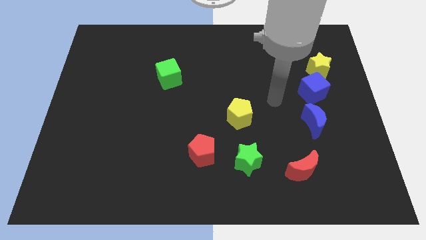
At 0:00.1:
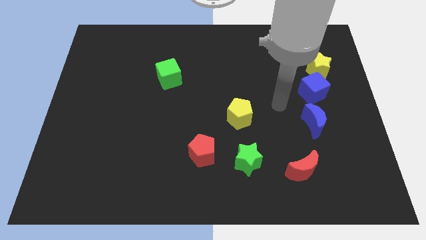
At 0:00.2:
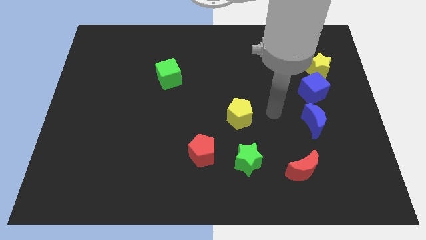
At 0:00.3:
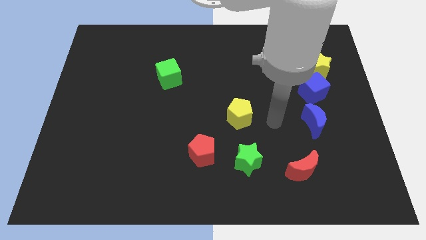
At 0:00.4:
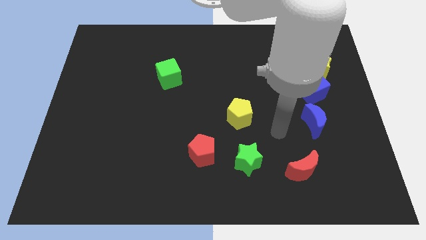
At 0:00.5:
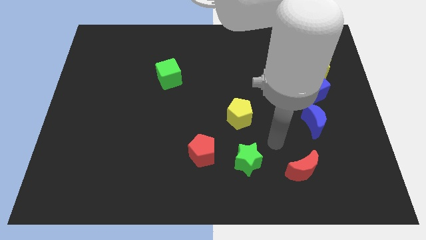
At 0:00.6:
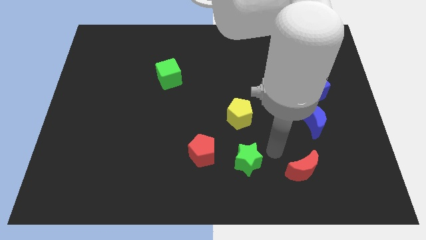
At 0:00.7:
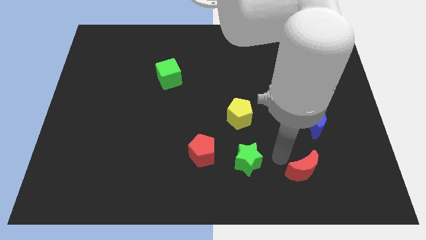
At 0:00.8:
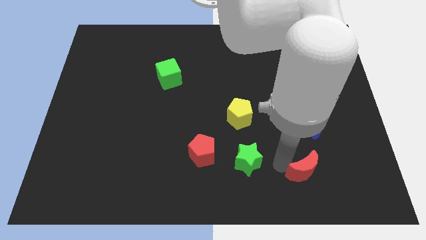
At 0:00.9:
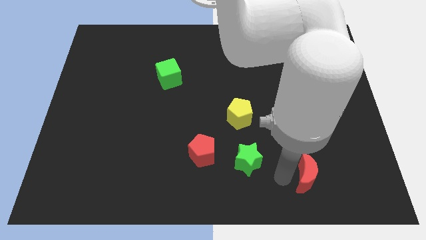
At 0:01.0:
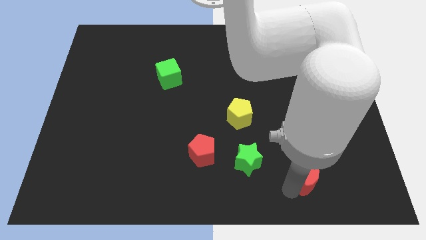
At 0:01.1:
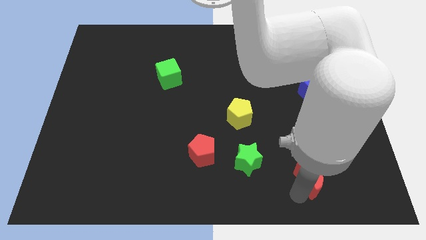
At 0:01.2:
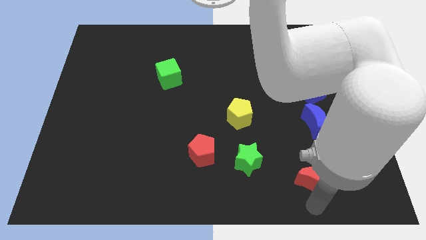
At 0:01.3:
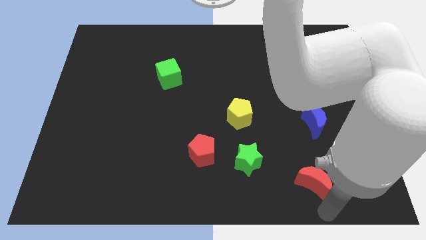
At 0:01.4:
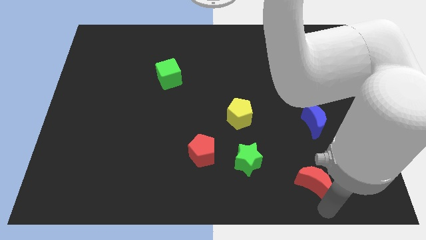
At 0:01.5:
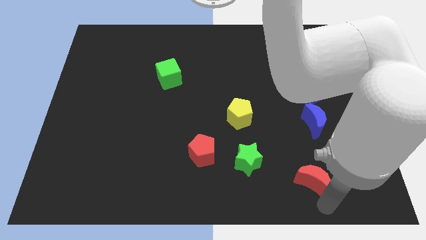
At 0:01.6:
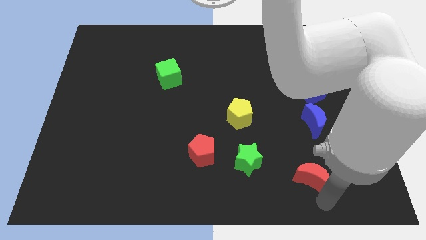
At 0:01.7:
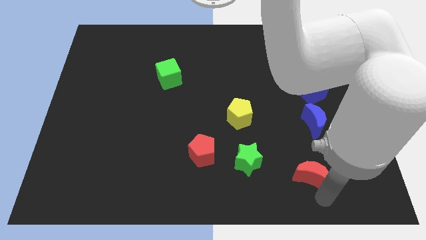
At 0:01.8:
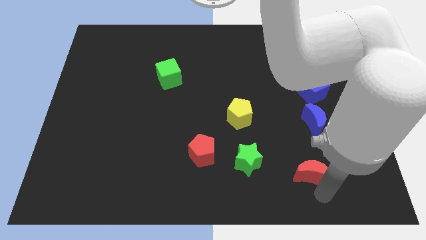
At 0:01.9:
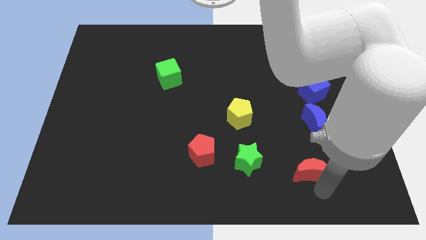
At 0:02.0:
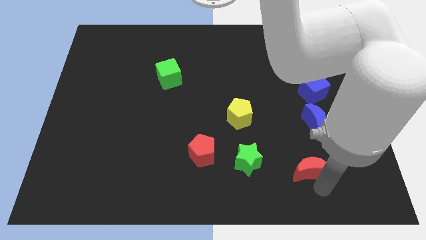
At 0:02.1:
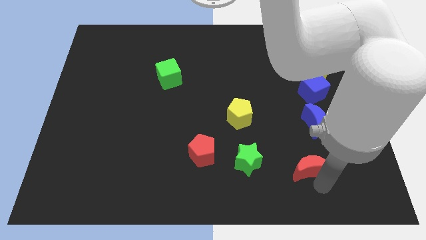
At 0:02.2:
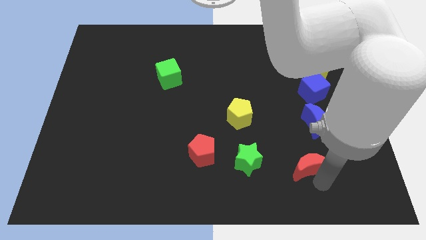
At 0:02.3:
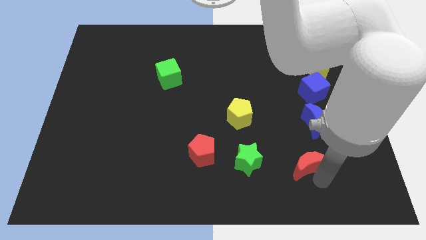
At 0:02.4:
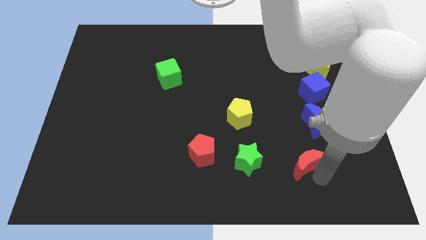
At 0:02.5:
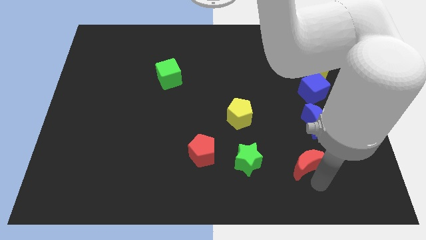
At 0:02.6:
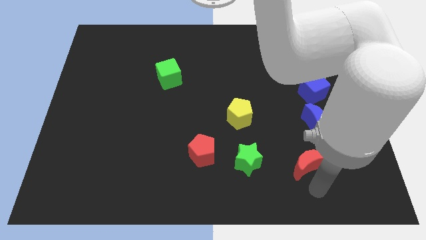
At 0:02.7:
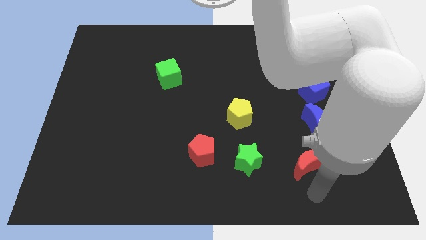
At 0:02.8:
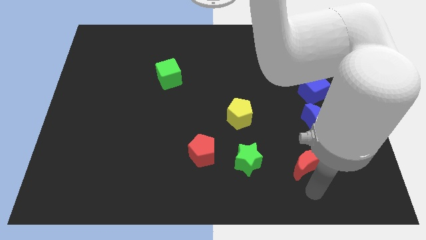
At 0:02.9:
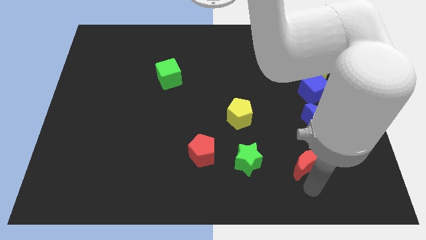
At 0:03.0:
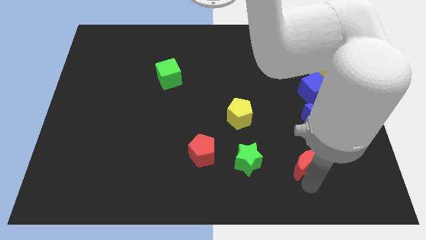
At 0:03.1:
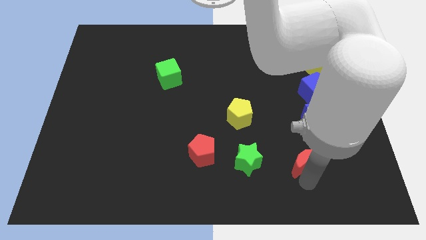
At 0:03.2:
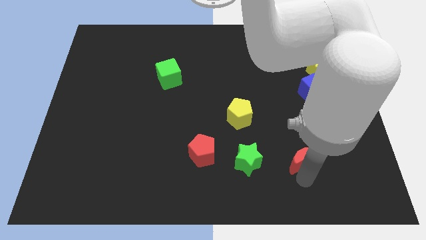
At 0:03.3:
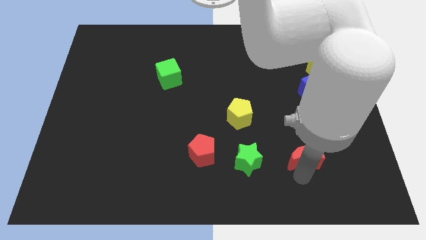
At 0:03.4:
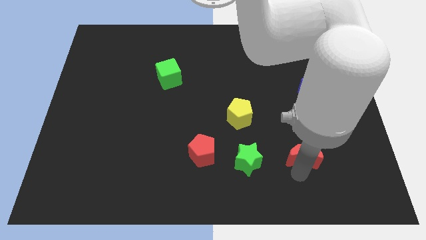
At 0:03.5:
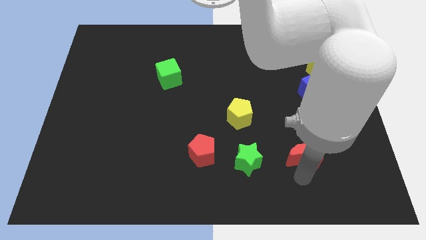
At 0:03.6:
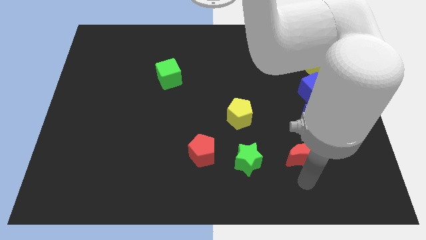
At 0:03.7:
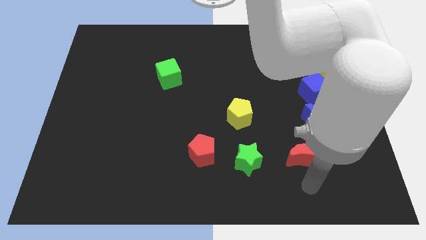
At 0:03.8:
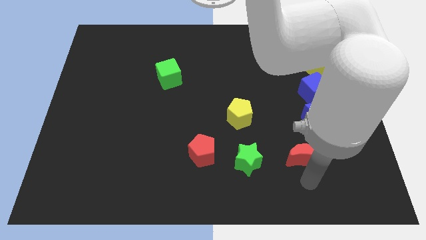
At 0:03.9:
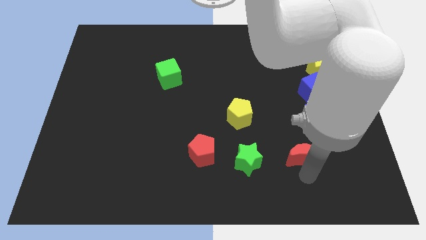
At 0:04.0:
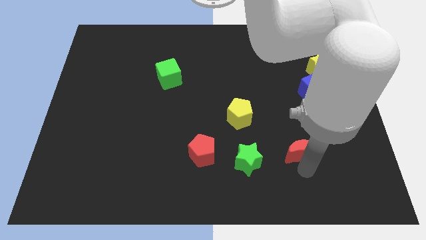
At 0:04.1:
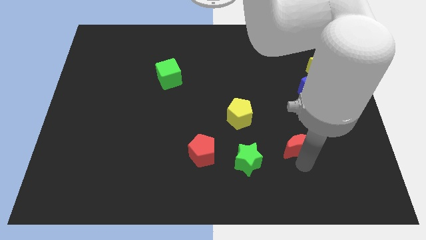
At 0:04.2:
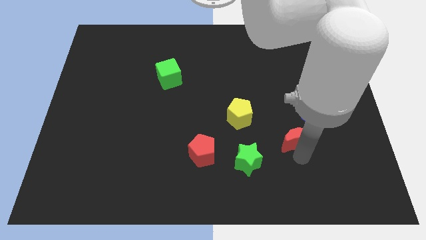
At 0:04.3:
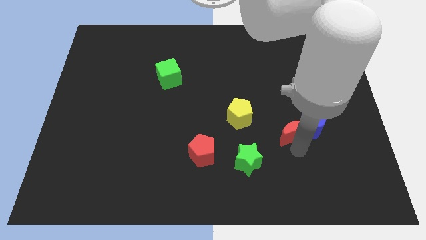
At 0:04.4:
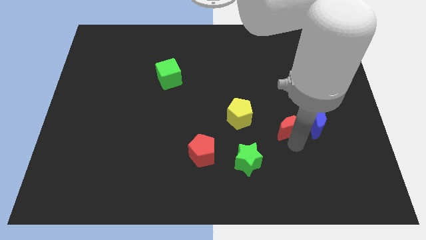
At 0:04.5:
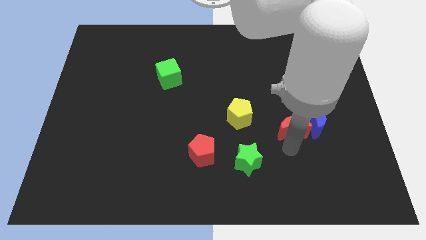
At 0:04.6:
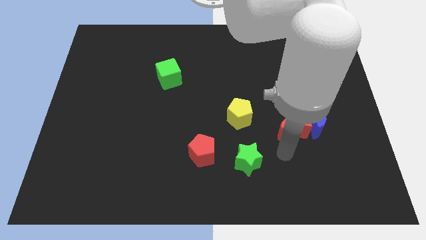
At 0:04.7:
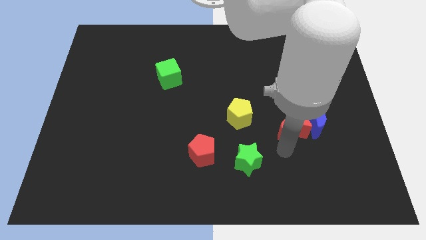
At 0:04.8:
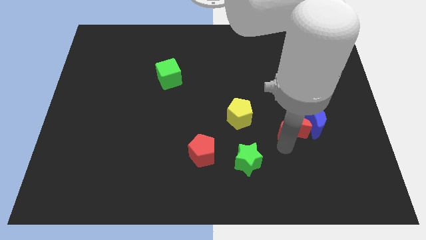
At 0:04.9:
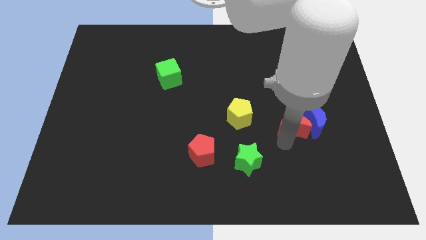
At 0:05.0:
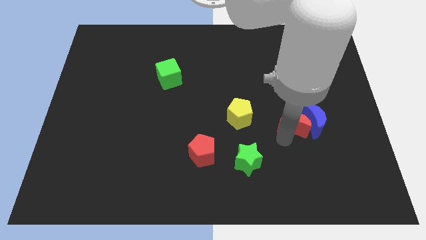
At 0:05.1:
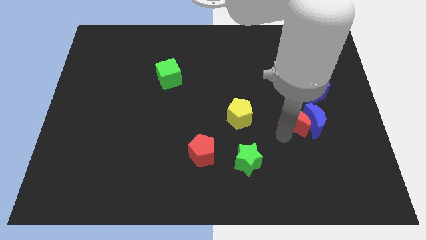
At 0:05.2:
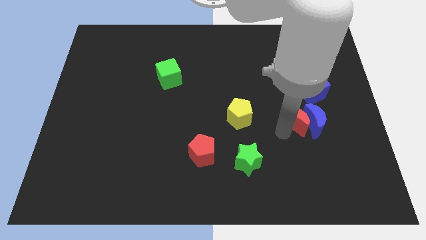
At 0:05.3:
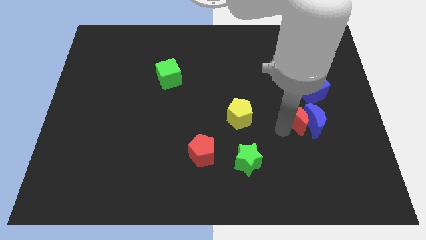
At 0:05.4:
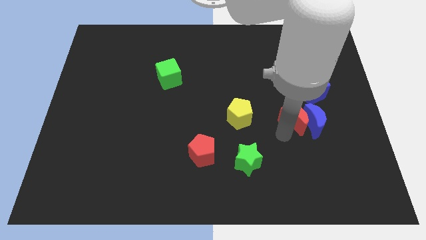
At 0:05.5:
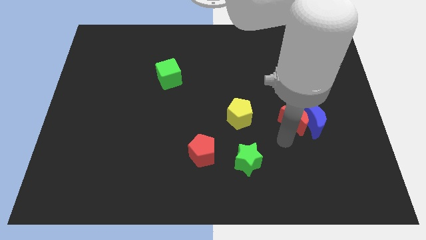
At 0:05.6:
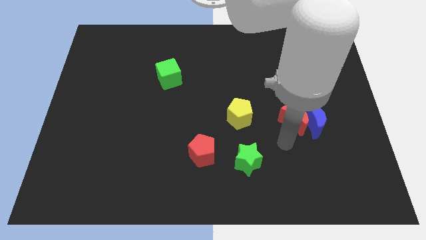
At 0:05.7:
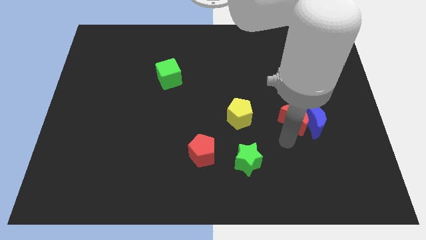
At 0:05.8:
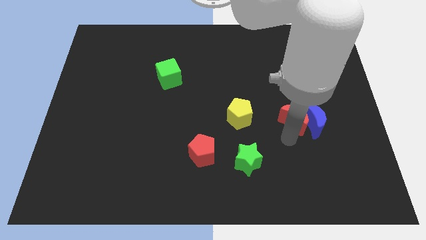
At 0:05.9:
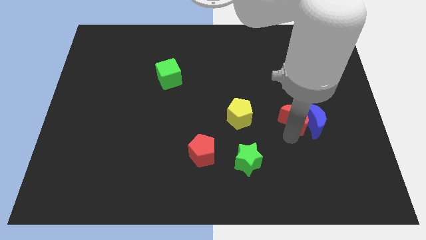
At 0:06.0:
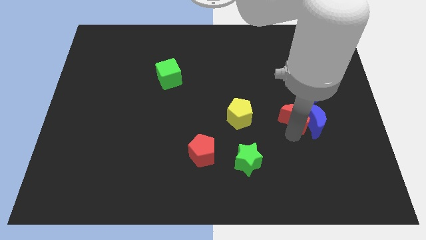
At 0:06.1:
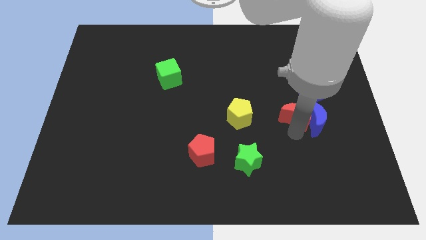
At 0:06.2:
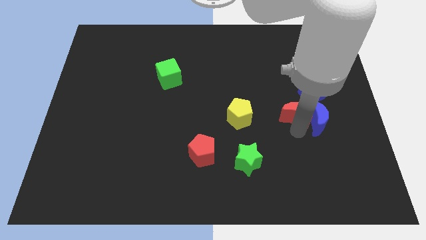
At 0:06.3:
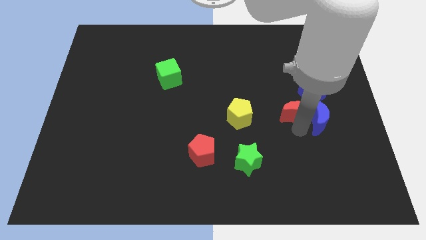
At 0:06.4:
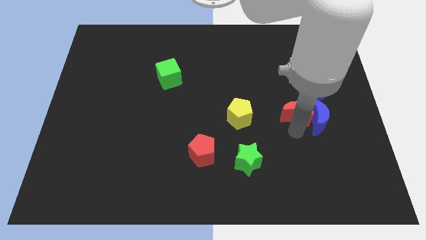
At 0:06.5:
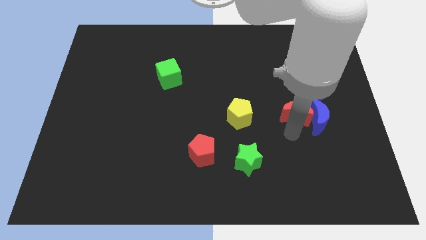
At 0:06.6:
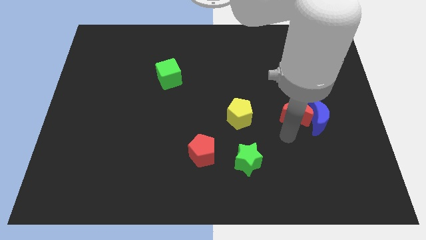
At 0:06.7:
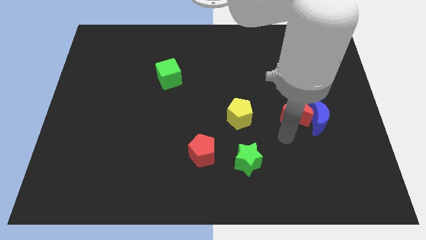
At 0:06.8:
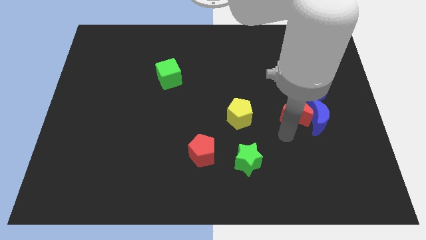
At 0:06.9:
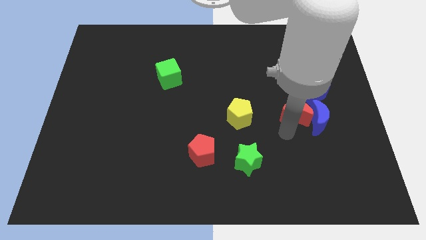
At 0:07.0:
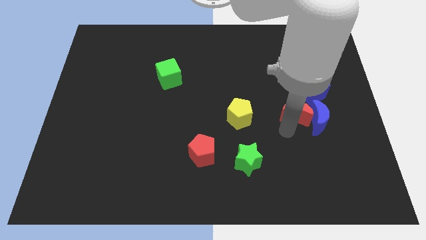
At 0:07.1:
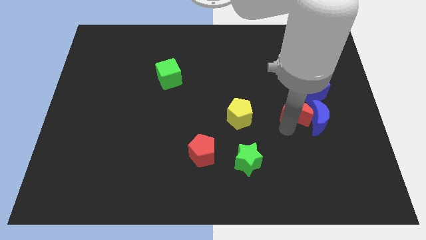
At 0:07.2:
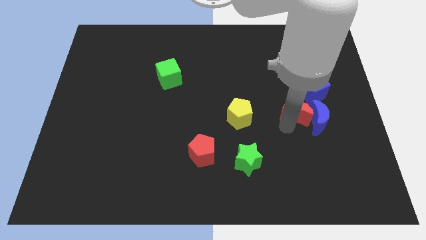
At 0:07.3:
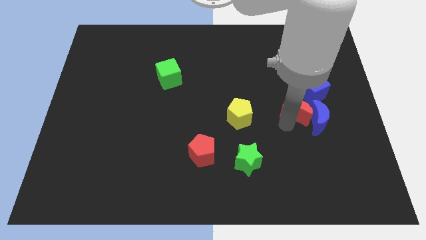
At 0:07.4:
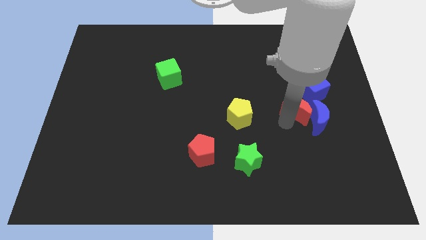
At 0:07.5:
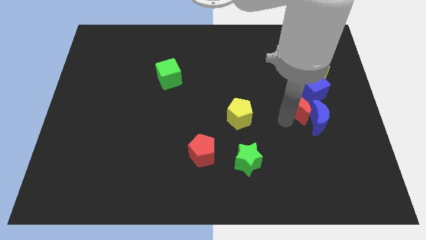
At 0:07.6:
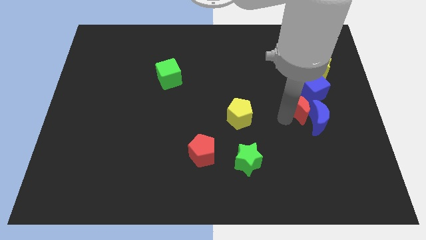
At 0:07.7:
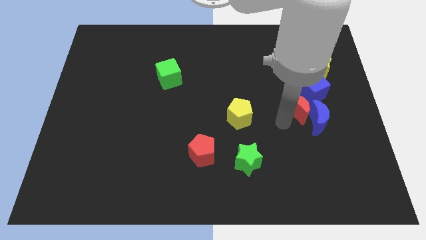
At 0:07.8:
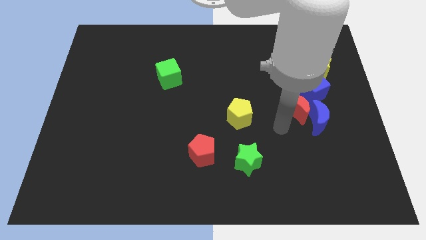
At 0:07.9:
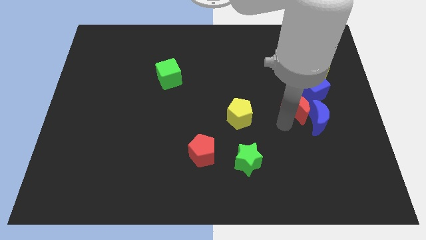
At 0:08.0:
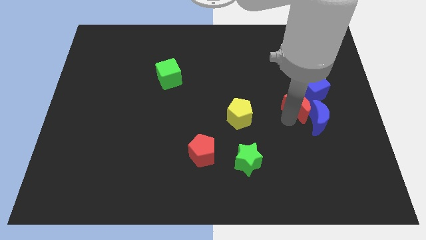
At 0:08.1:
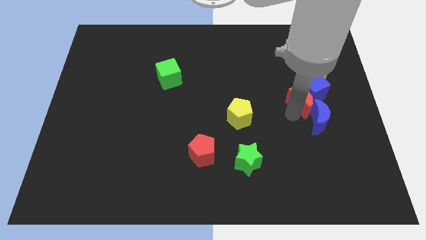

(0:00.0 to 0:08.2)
put the red moon to the blue cube

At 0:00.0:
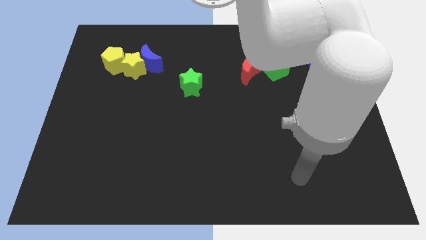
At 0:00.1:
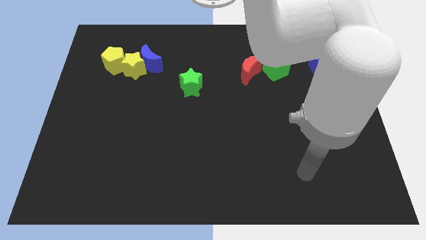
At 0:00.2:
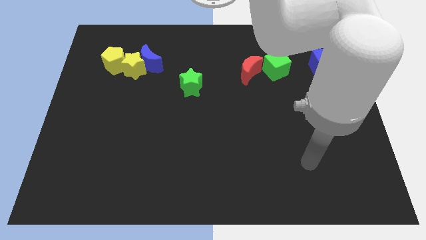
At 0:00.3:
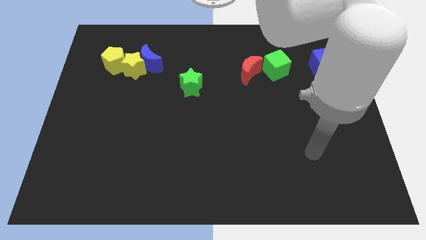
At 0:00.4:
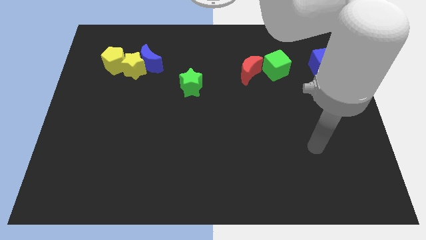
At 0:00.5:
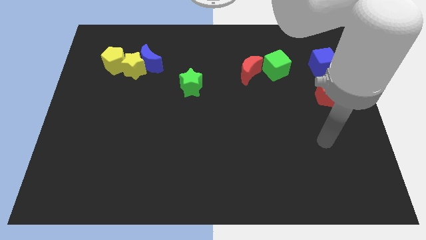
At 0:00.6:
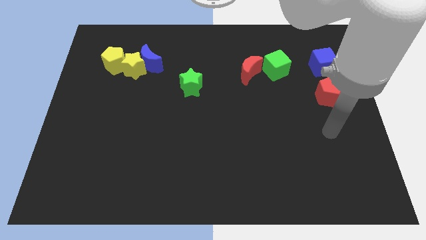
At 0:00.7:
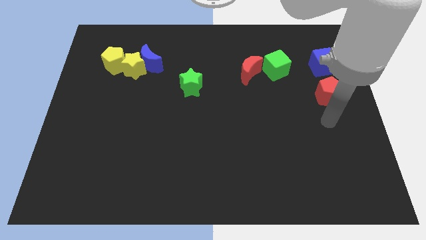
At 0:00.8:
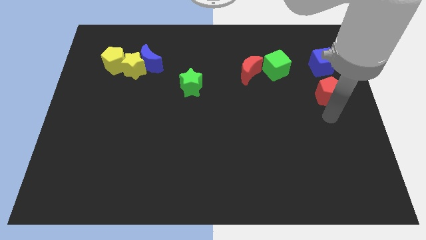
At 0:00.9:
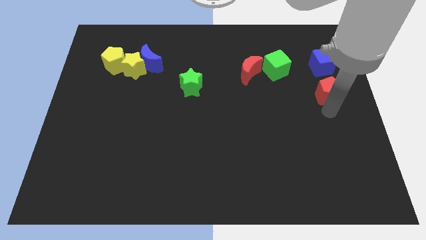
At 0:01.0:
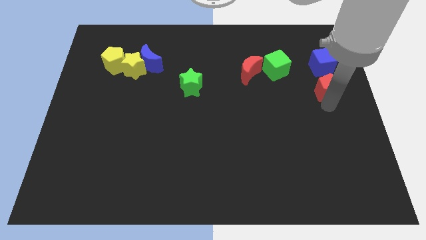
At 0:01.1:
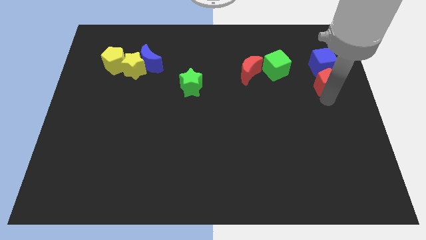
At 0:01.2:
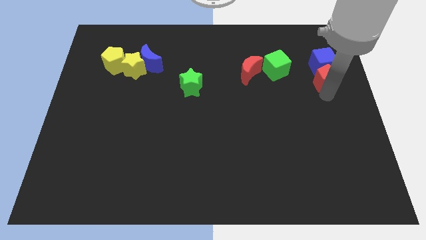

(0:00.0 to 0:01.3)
put the red pentagon towards the blue cube
